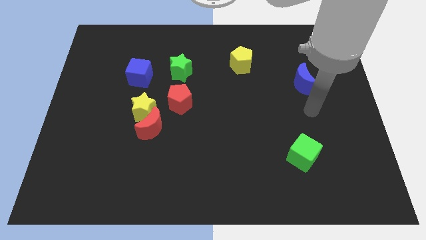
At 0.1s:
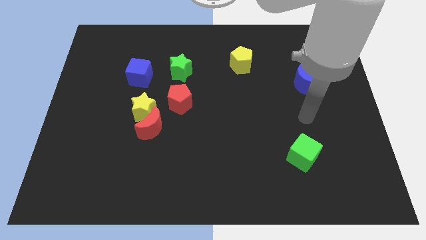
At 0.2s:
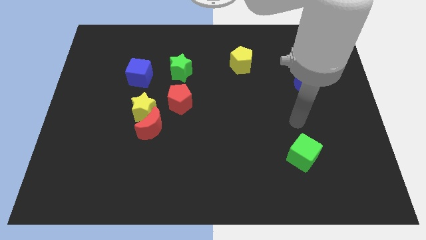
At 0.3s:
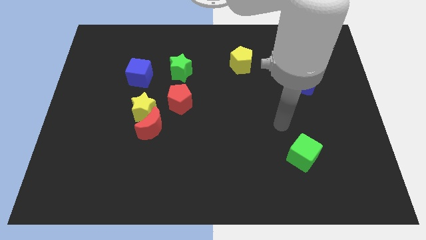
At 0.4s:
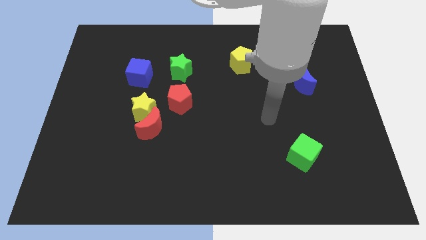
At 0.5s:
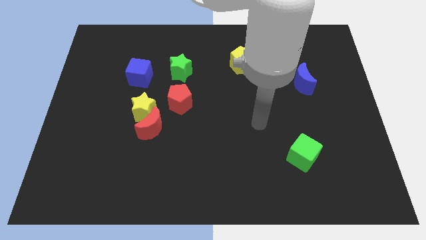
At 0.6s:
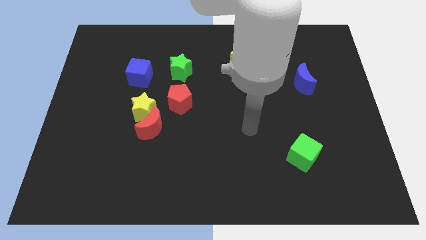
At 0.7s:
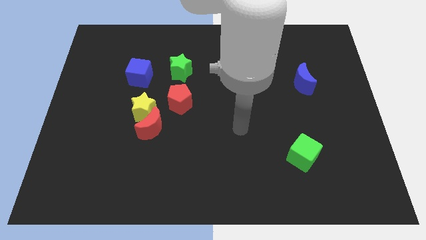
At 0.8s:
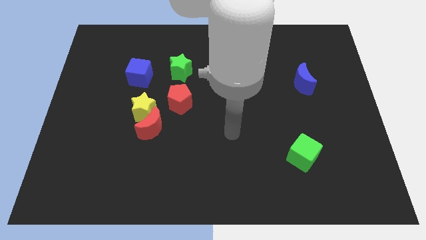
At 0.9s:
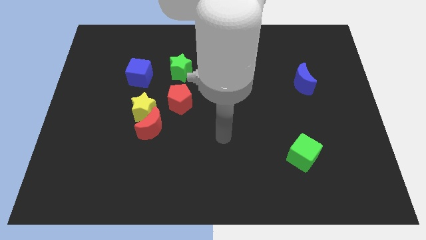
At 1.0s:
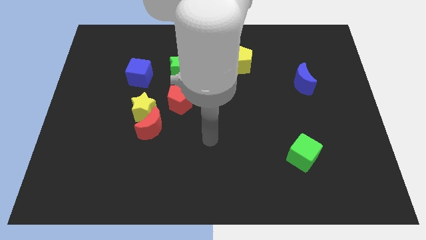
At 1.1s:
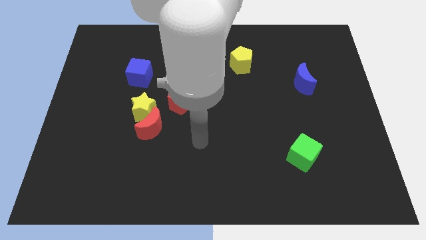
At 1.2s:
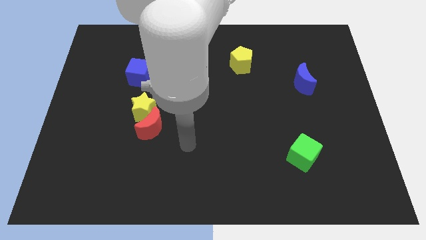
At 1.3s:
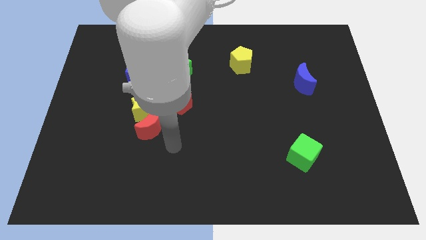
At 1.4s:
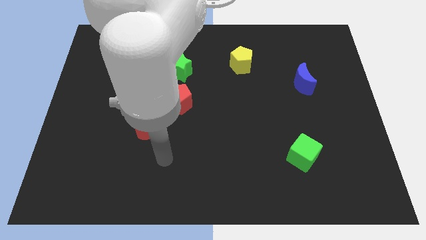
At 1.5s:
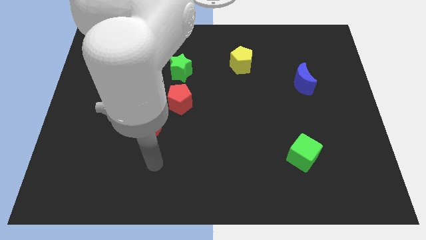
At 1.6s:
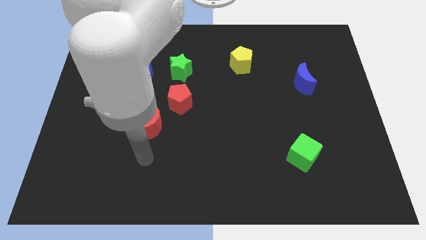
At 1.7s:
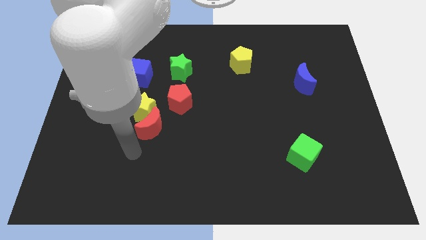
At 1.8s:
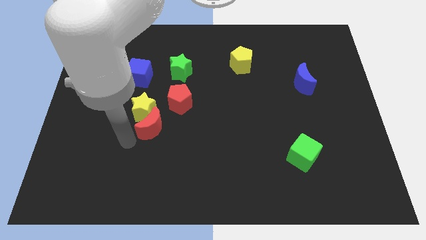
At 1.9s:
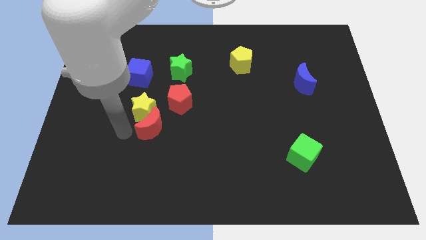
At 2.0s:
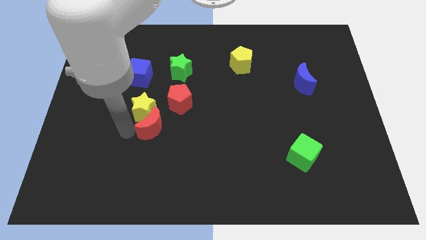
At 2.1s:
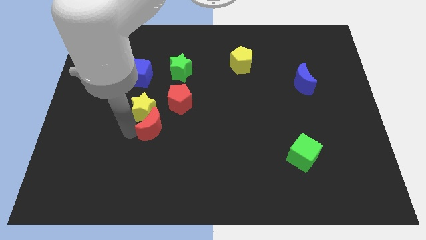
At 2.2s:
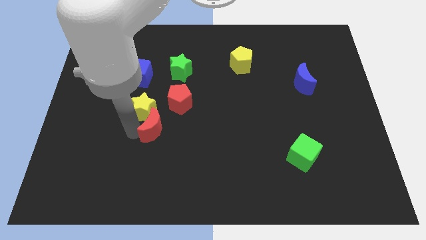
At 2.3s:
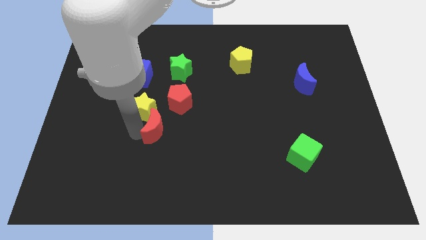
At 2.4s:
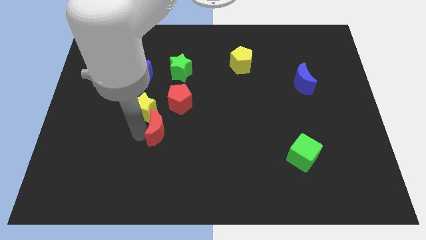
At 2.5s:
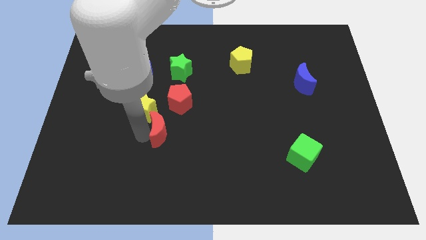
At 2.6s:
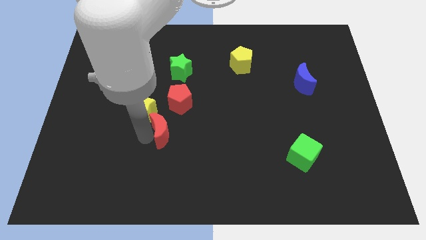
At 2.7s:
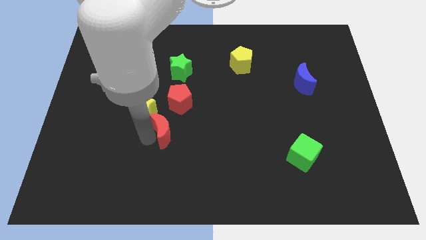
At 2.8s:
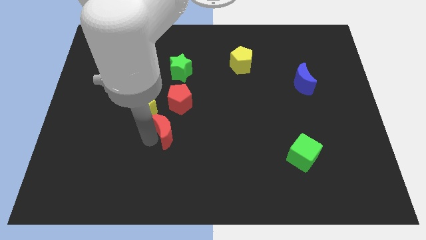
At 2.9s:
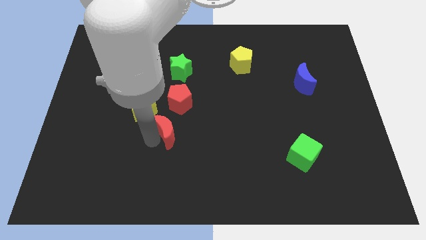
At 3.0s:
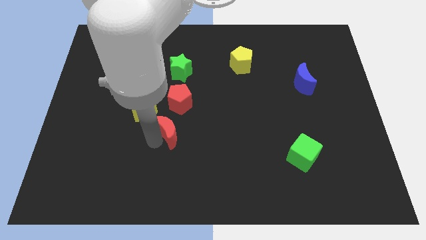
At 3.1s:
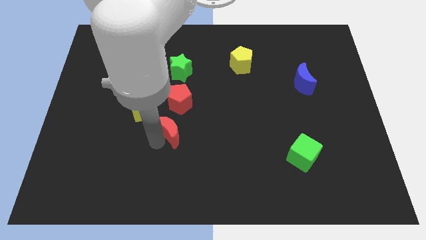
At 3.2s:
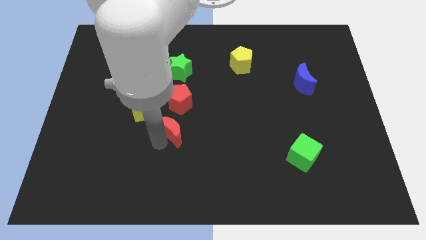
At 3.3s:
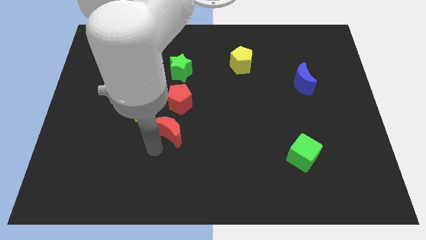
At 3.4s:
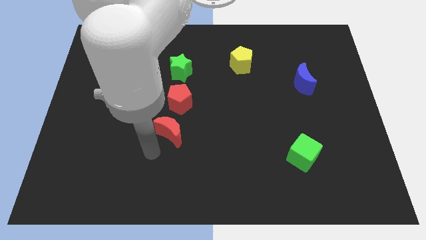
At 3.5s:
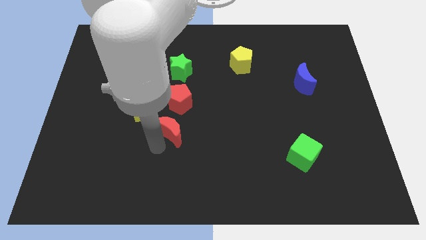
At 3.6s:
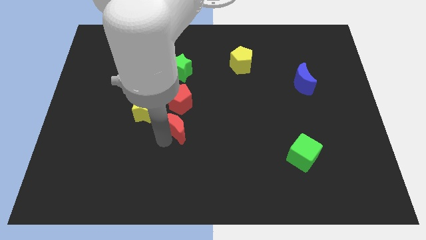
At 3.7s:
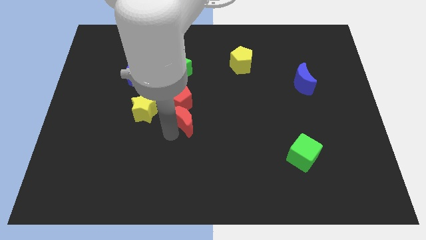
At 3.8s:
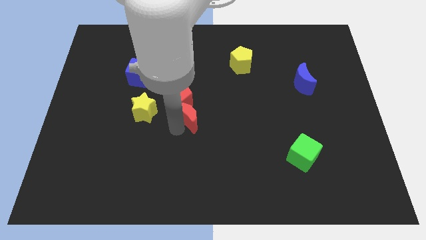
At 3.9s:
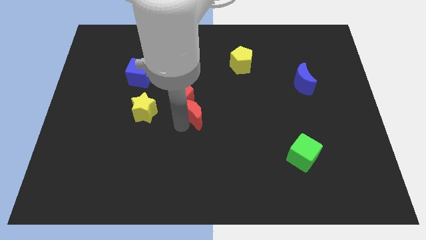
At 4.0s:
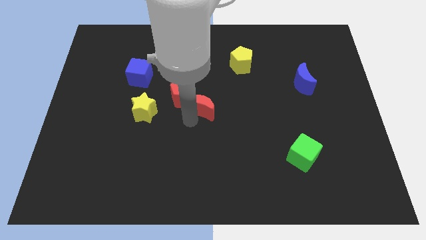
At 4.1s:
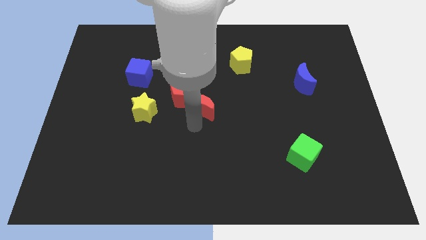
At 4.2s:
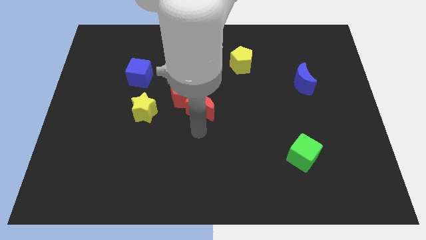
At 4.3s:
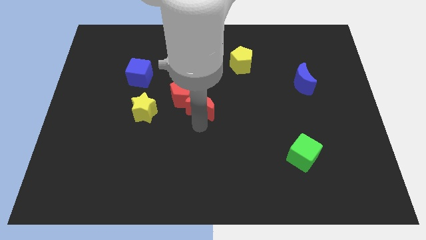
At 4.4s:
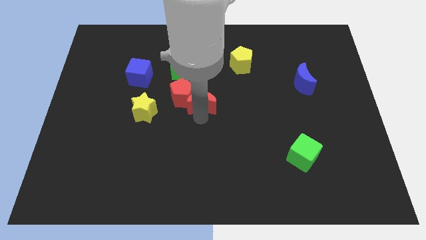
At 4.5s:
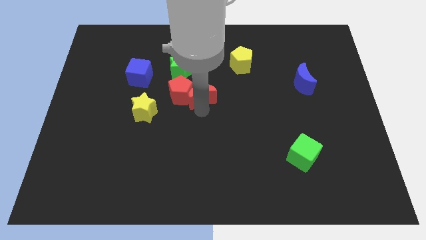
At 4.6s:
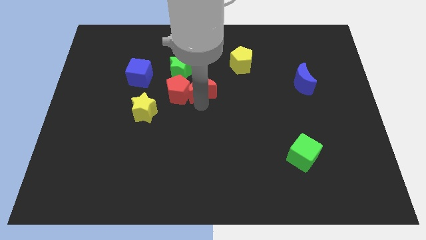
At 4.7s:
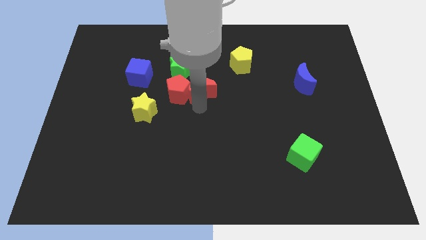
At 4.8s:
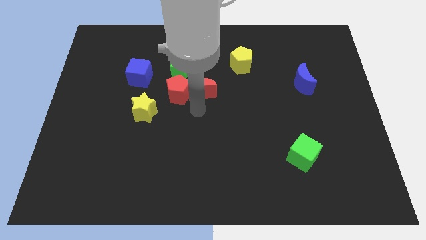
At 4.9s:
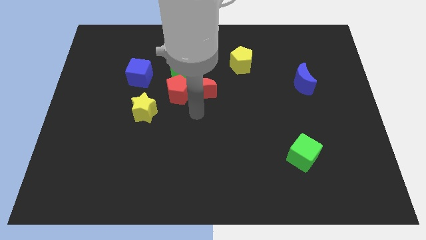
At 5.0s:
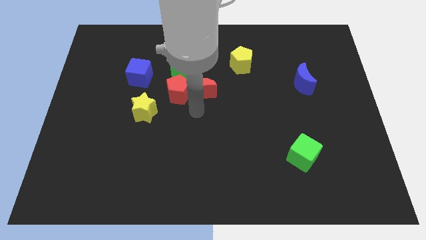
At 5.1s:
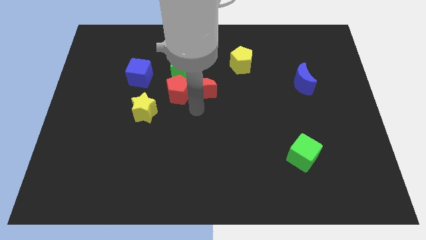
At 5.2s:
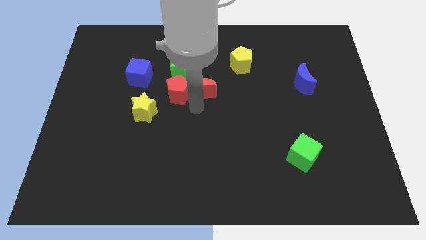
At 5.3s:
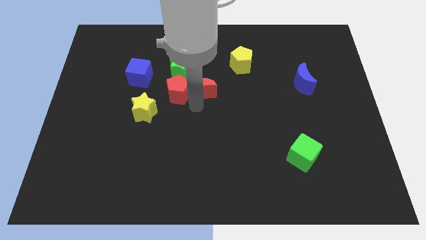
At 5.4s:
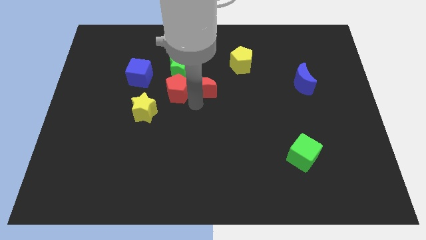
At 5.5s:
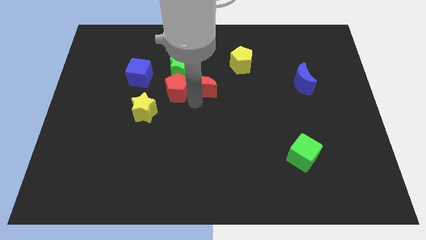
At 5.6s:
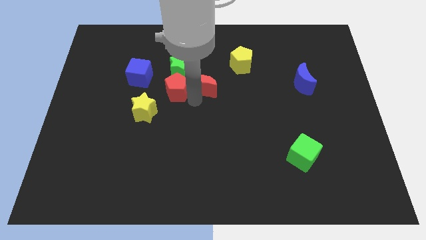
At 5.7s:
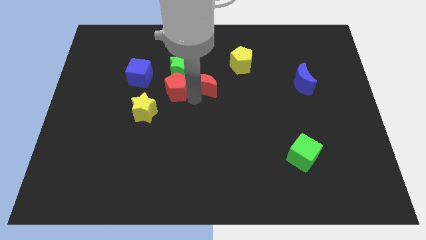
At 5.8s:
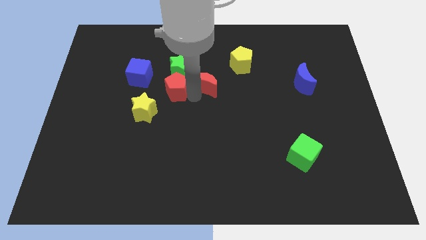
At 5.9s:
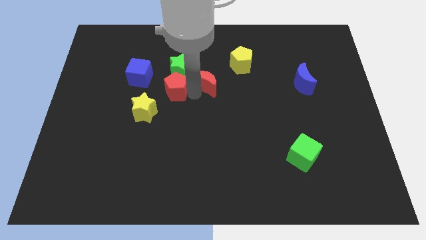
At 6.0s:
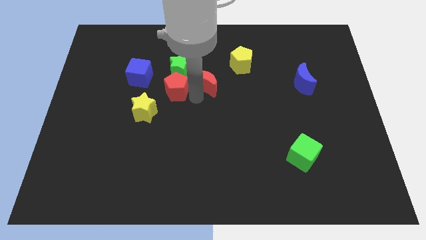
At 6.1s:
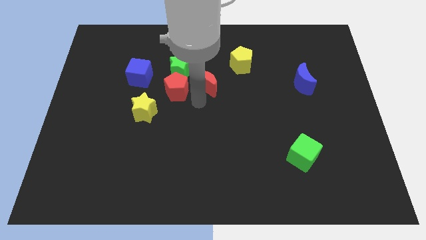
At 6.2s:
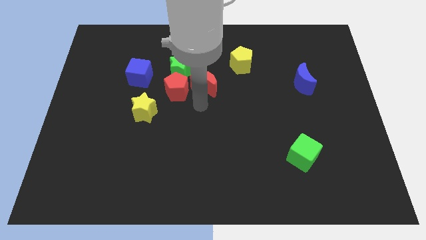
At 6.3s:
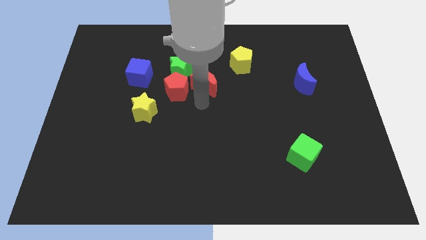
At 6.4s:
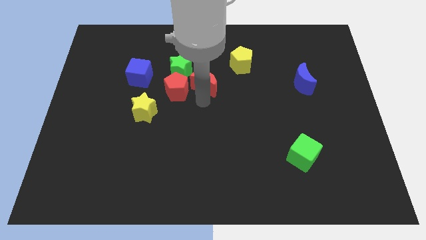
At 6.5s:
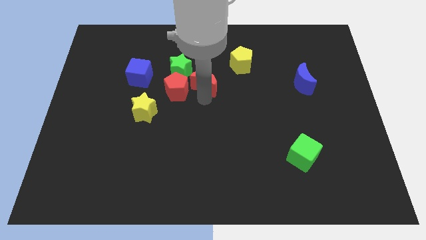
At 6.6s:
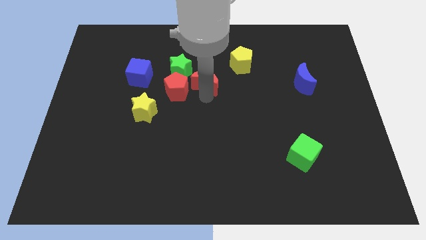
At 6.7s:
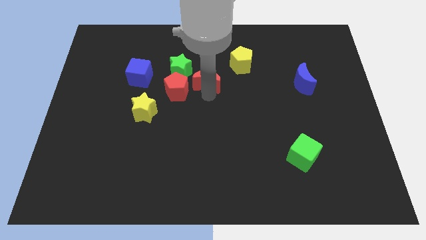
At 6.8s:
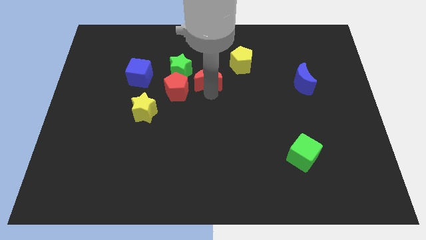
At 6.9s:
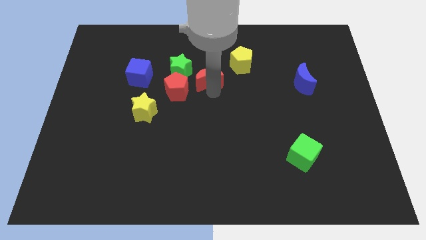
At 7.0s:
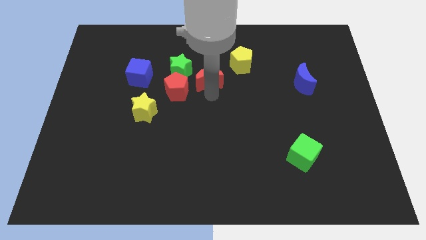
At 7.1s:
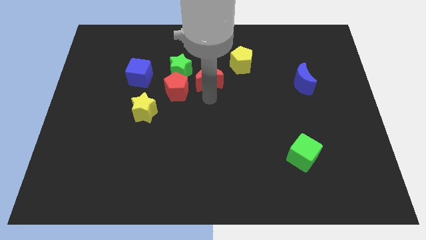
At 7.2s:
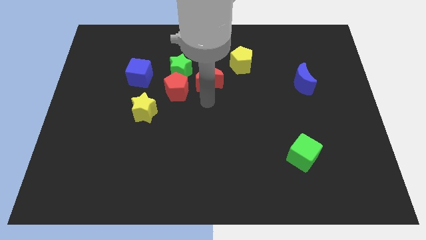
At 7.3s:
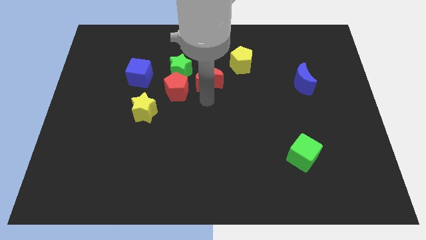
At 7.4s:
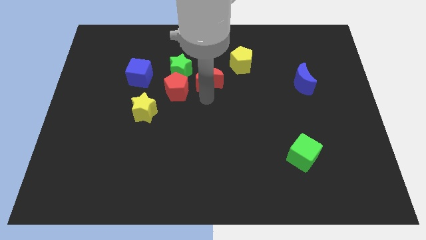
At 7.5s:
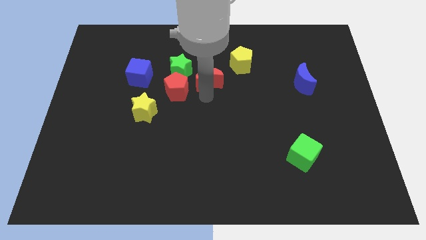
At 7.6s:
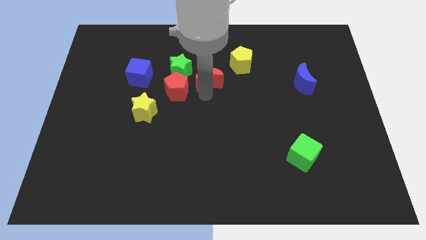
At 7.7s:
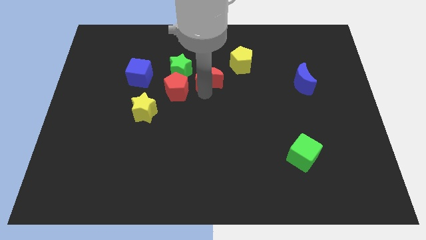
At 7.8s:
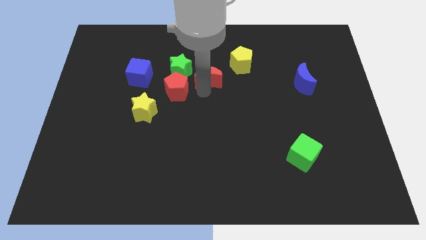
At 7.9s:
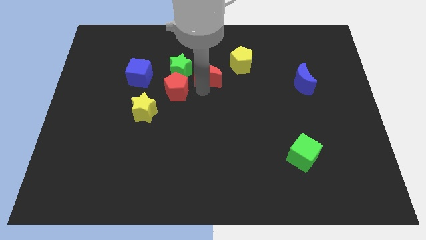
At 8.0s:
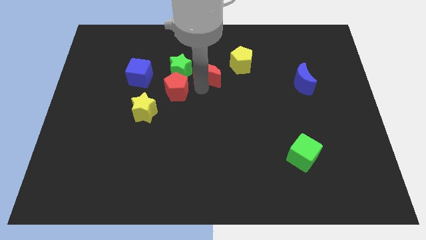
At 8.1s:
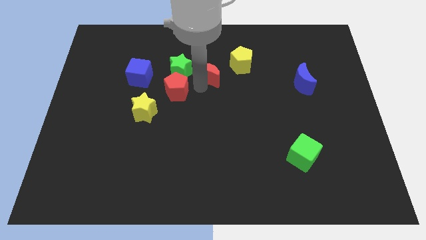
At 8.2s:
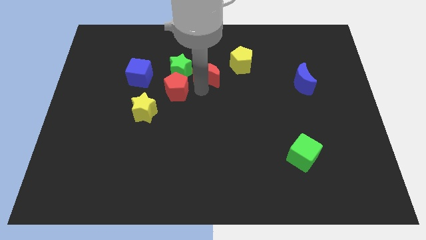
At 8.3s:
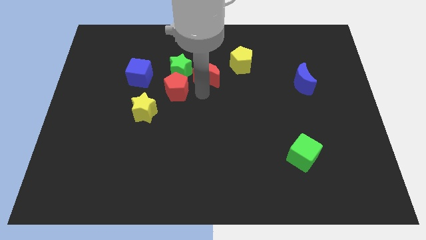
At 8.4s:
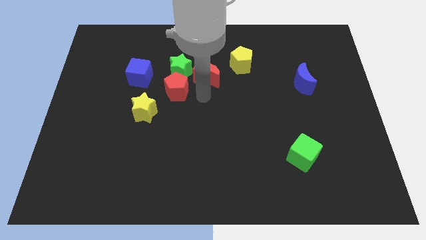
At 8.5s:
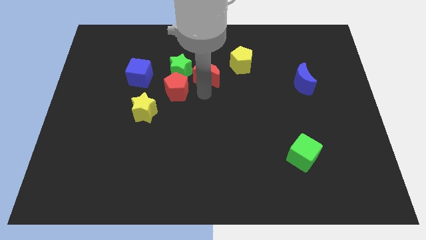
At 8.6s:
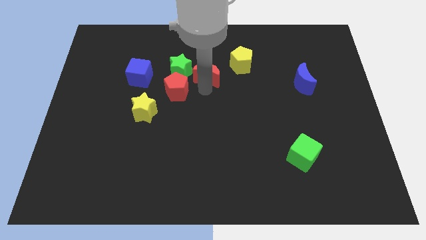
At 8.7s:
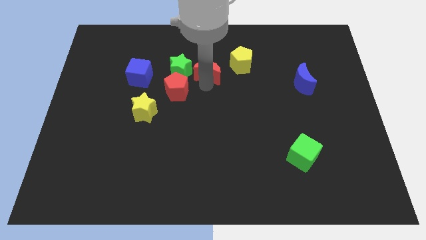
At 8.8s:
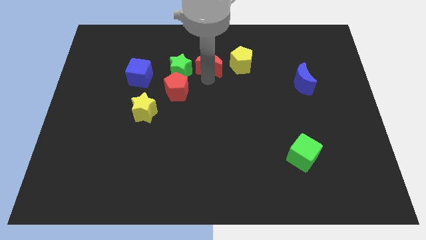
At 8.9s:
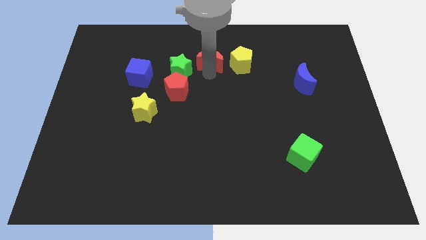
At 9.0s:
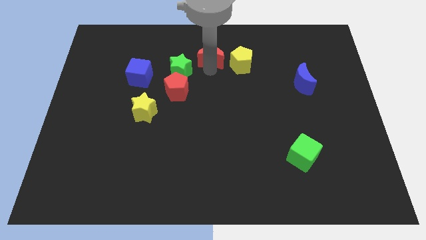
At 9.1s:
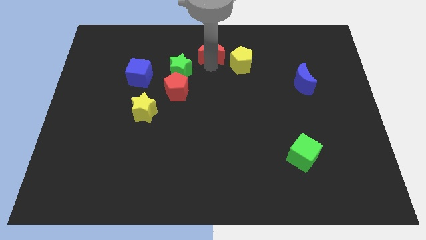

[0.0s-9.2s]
put the red moon to the towards your base
